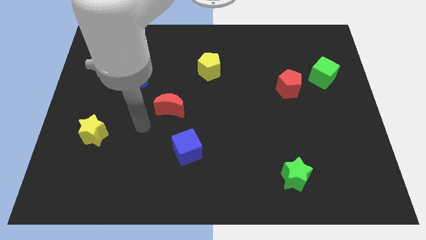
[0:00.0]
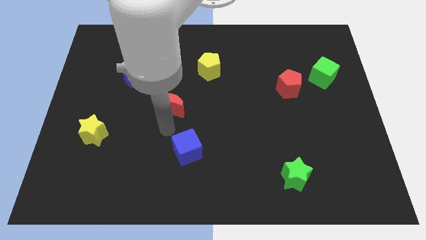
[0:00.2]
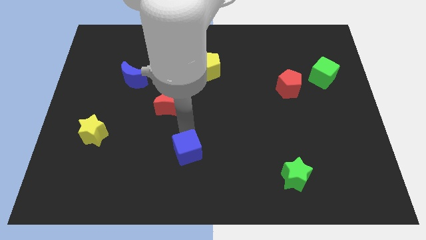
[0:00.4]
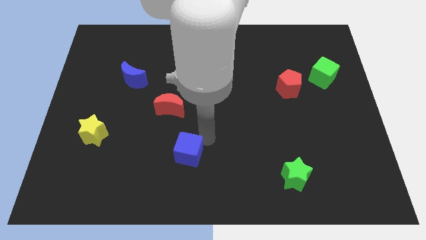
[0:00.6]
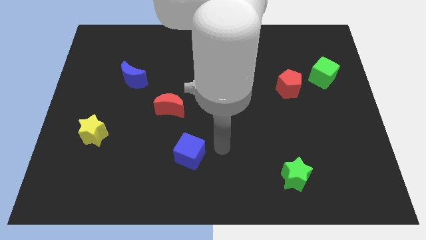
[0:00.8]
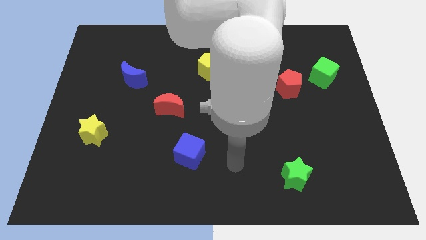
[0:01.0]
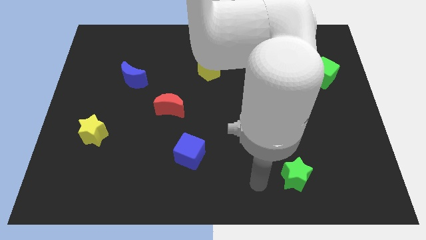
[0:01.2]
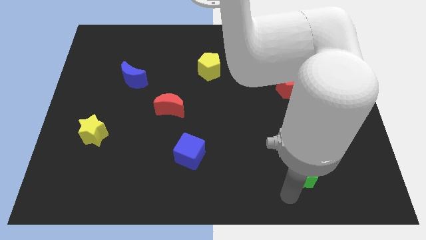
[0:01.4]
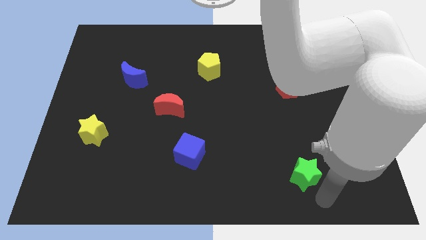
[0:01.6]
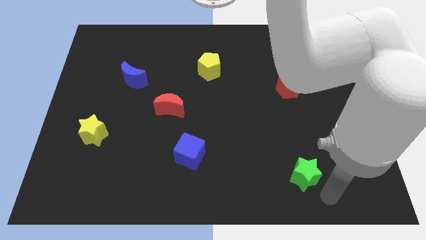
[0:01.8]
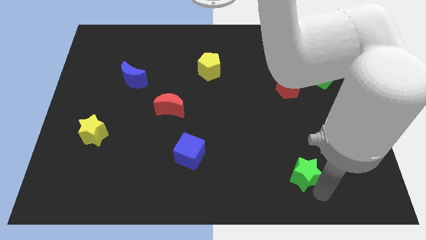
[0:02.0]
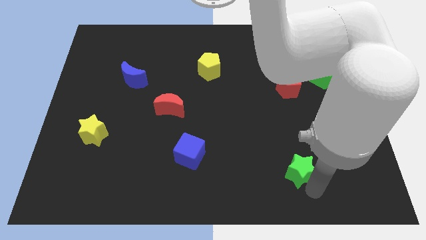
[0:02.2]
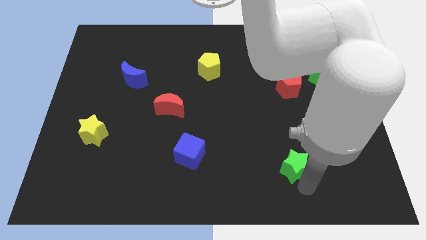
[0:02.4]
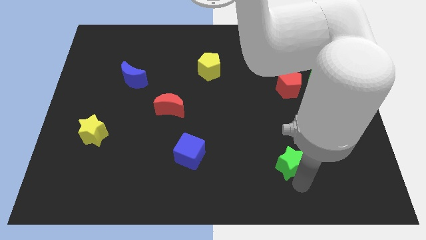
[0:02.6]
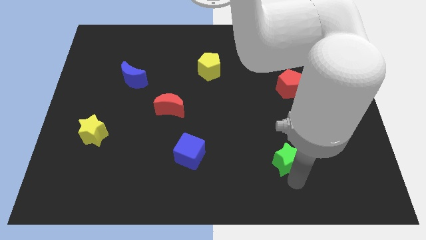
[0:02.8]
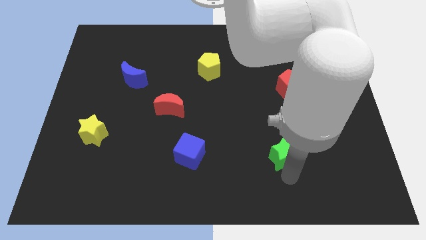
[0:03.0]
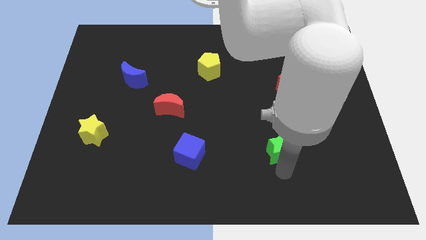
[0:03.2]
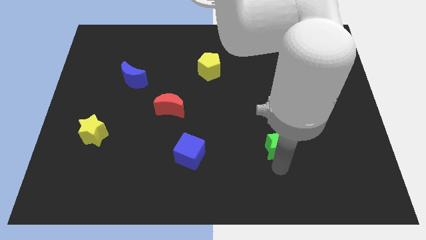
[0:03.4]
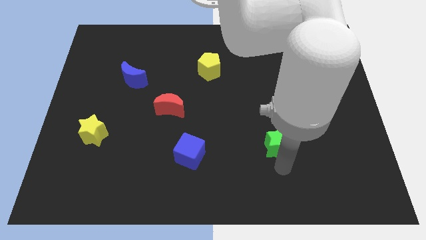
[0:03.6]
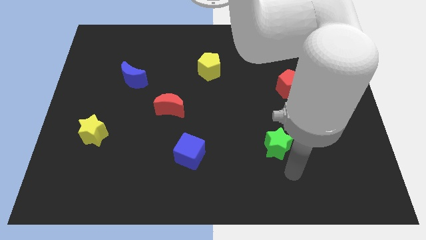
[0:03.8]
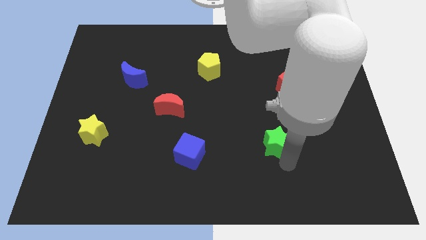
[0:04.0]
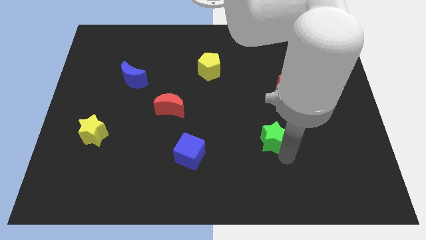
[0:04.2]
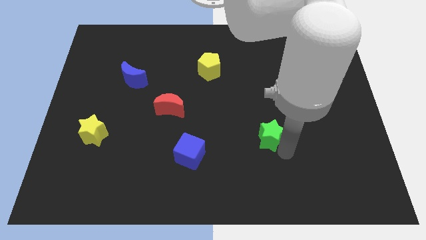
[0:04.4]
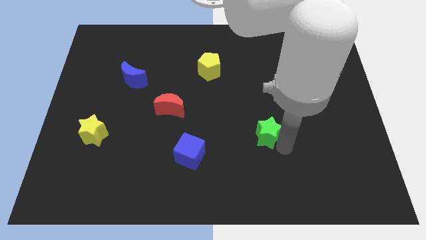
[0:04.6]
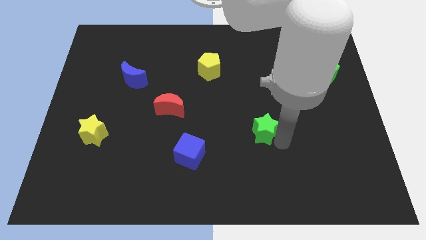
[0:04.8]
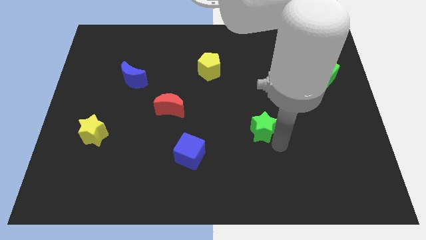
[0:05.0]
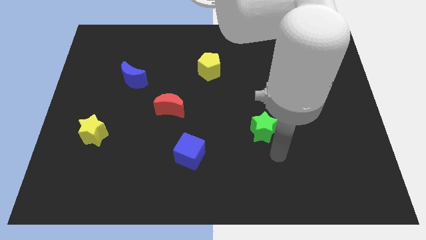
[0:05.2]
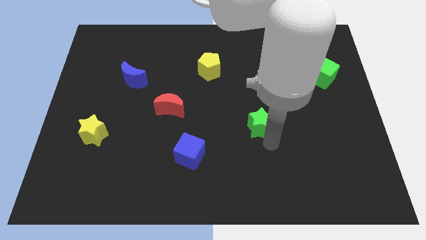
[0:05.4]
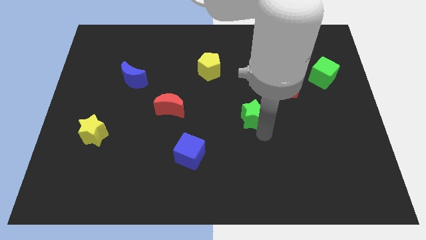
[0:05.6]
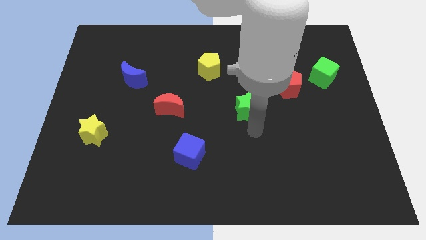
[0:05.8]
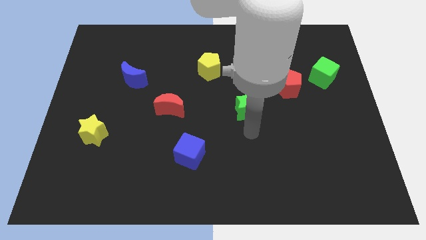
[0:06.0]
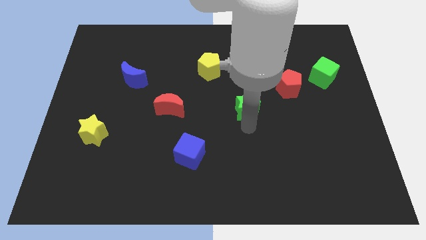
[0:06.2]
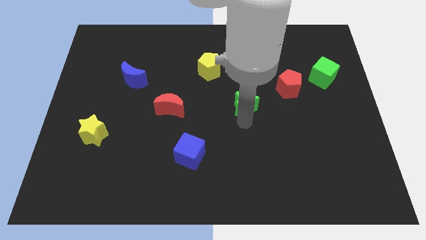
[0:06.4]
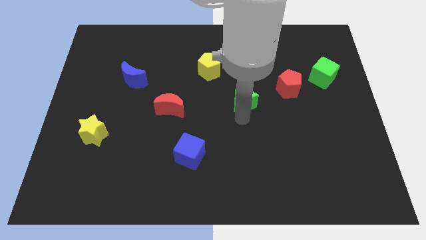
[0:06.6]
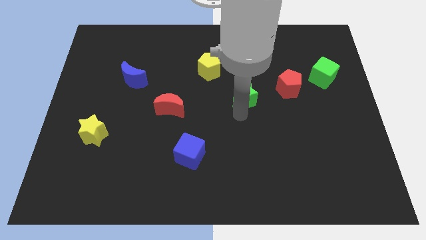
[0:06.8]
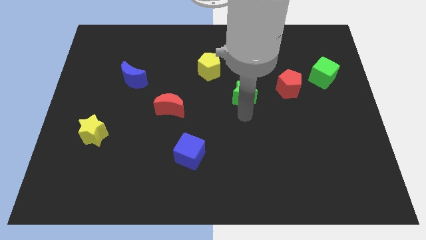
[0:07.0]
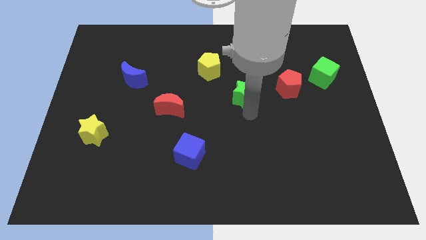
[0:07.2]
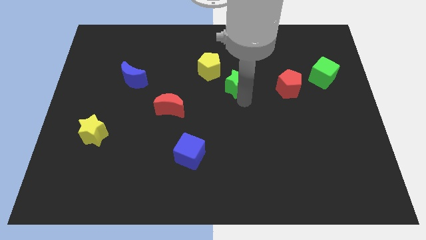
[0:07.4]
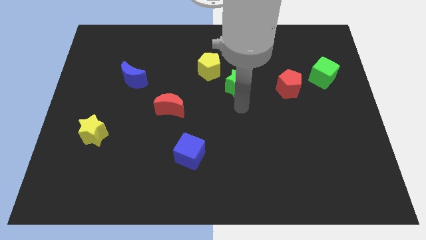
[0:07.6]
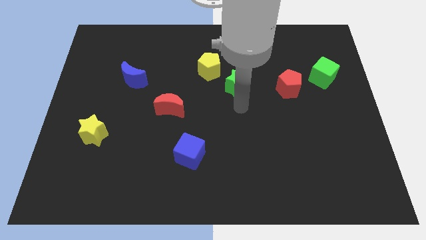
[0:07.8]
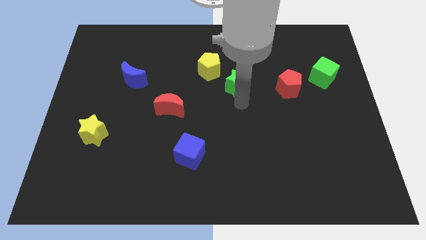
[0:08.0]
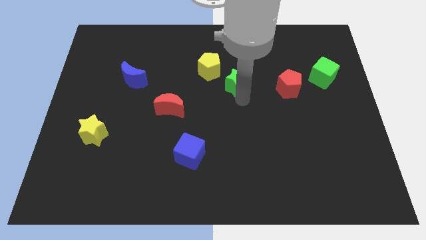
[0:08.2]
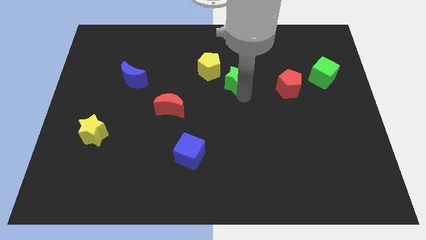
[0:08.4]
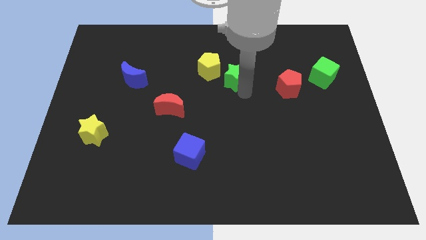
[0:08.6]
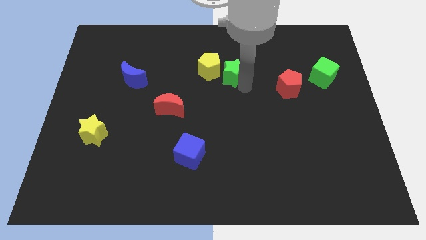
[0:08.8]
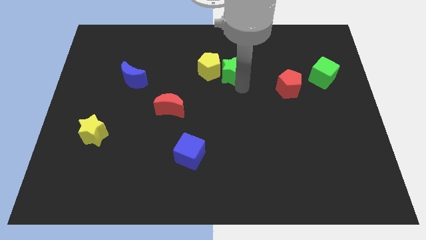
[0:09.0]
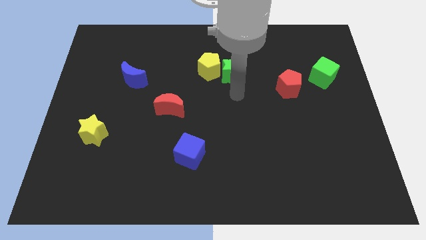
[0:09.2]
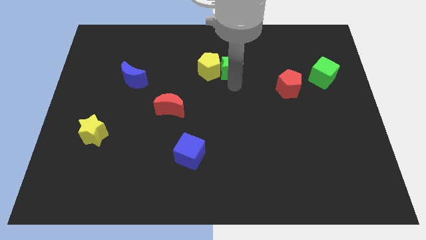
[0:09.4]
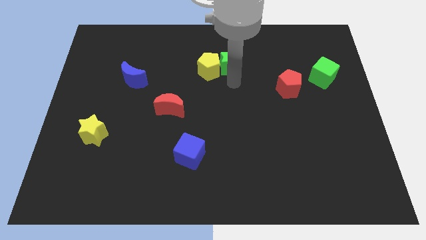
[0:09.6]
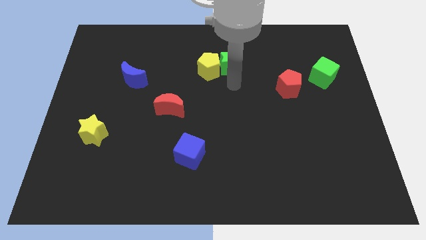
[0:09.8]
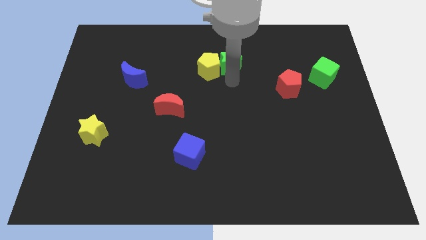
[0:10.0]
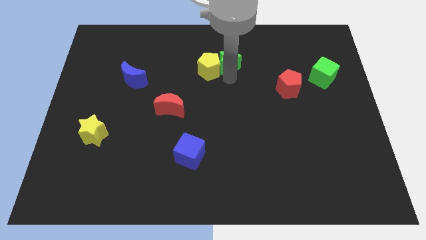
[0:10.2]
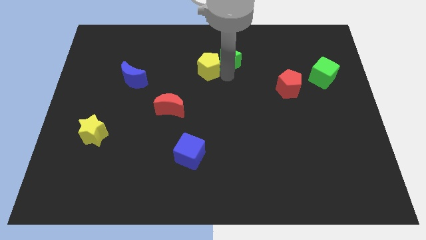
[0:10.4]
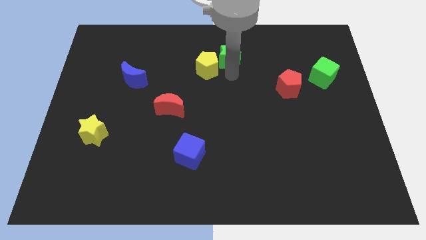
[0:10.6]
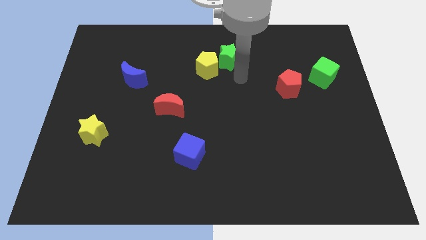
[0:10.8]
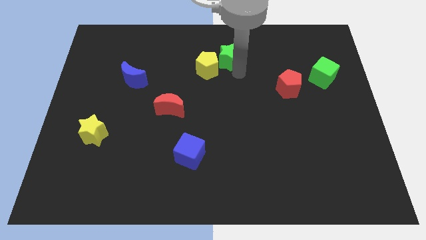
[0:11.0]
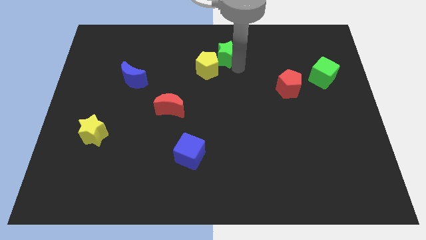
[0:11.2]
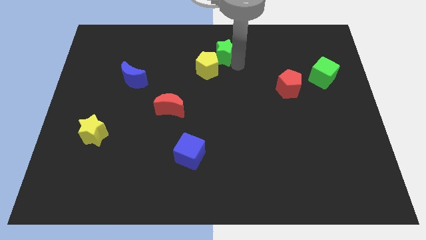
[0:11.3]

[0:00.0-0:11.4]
push the green star to the top side

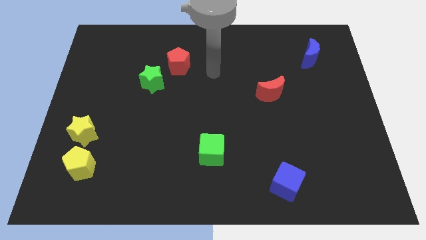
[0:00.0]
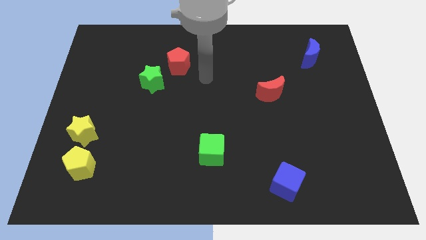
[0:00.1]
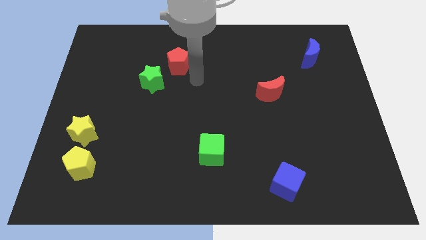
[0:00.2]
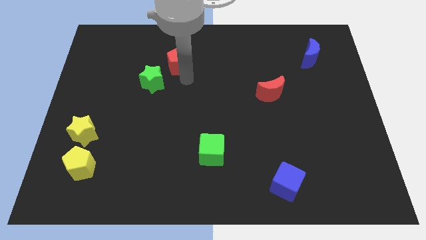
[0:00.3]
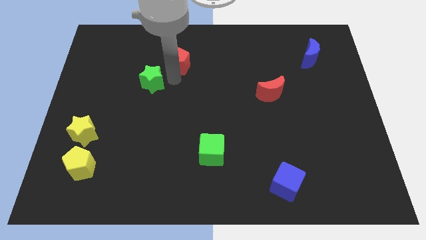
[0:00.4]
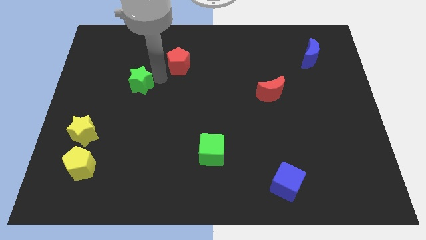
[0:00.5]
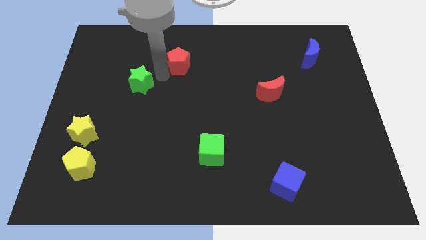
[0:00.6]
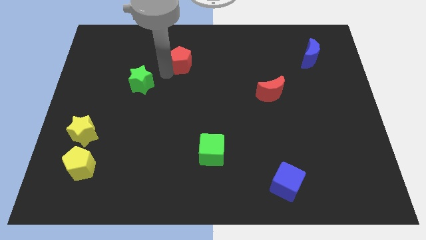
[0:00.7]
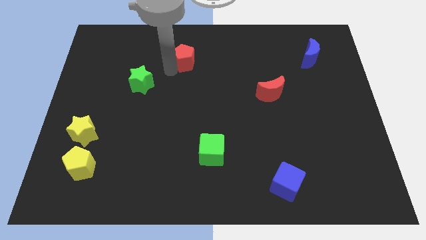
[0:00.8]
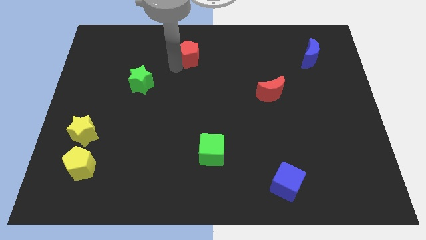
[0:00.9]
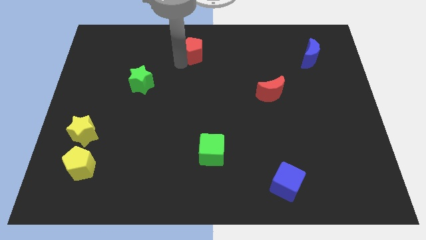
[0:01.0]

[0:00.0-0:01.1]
slide the red pentagon to the top side
